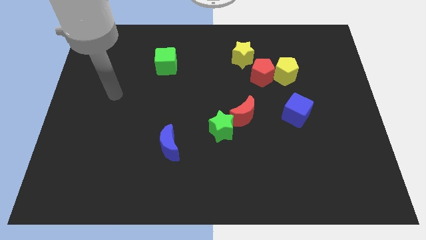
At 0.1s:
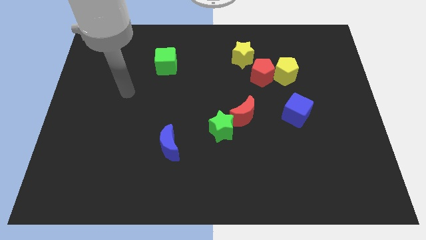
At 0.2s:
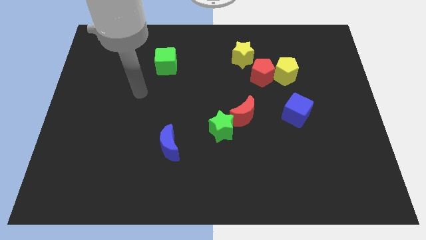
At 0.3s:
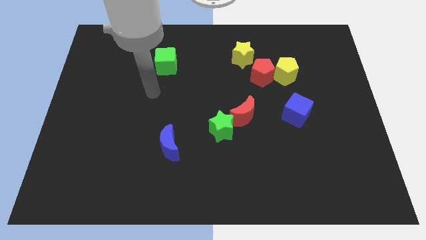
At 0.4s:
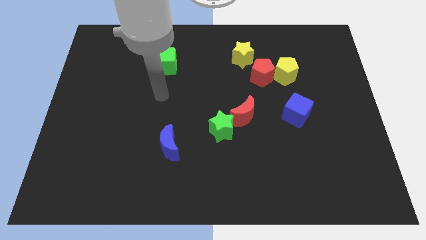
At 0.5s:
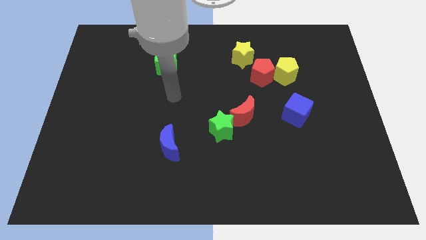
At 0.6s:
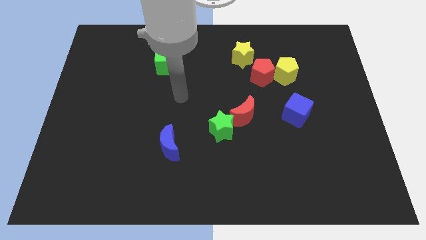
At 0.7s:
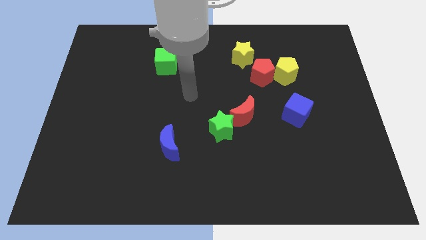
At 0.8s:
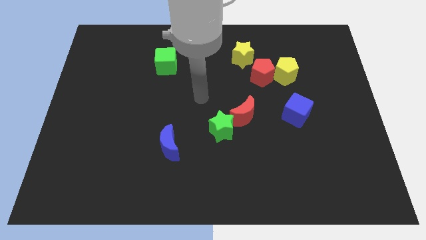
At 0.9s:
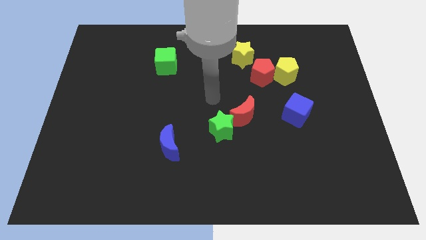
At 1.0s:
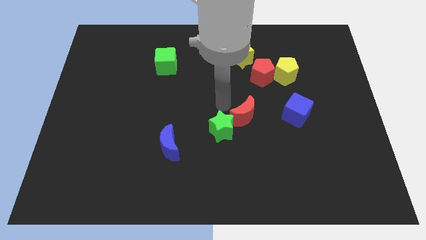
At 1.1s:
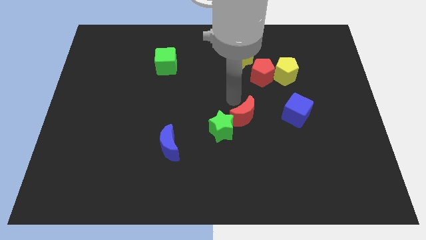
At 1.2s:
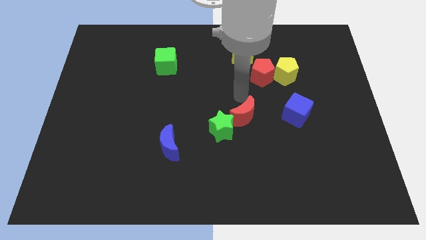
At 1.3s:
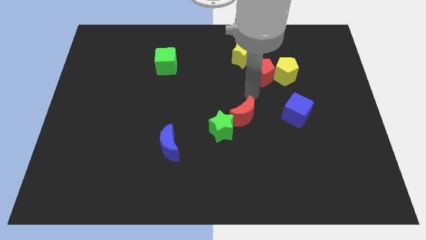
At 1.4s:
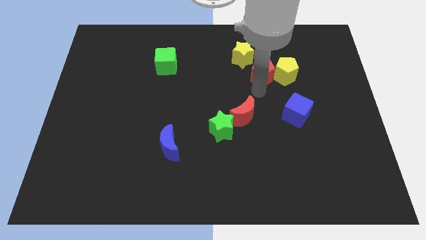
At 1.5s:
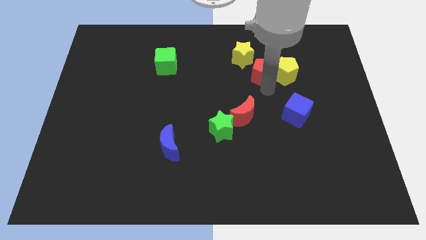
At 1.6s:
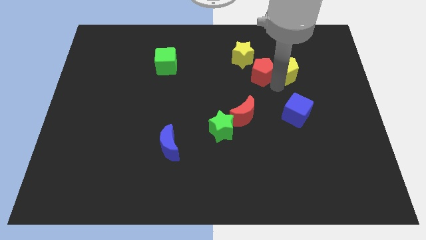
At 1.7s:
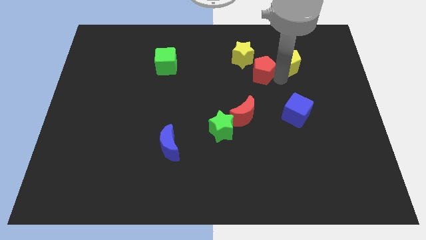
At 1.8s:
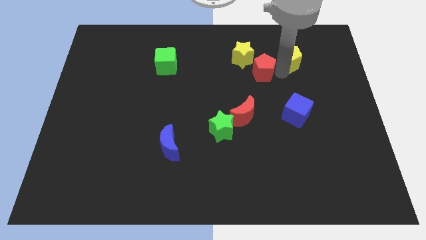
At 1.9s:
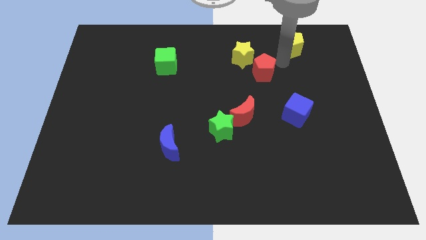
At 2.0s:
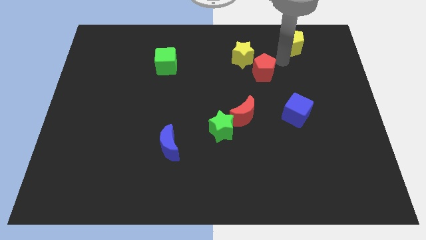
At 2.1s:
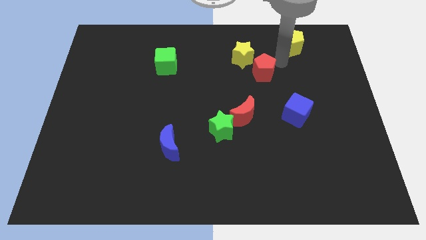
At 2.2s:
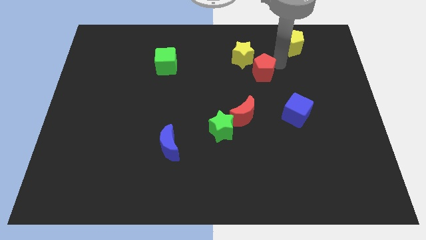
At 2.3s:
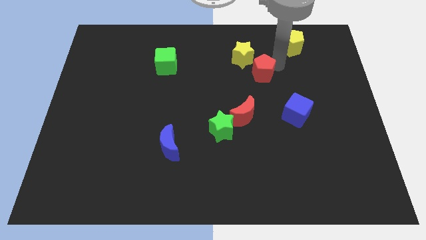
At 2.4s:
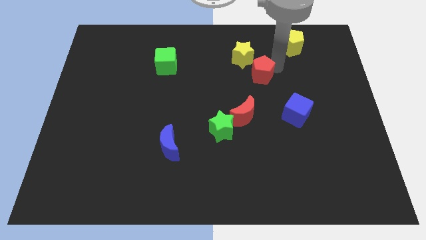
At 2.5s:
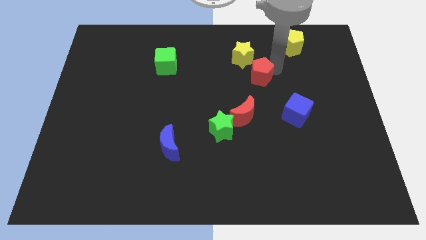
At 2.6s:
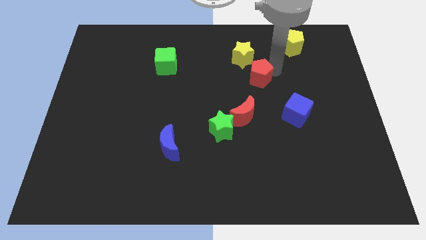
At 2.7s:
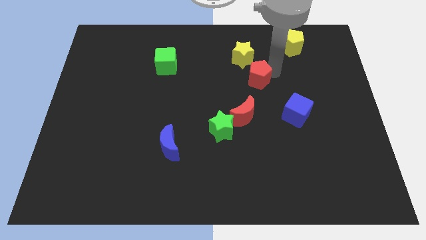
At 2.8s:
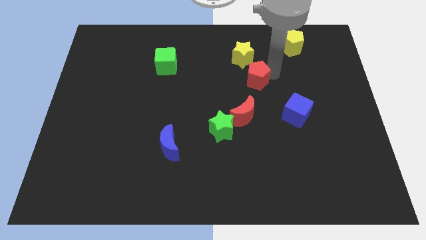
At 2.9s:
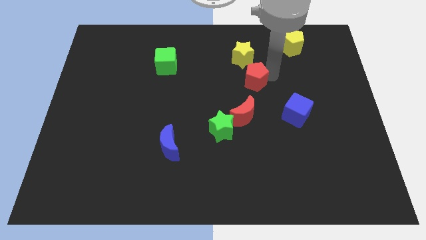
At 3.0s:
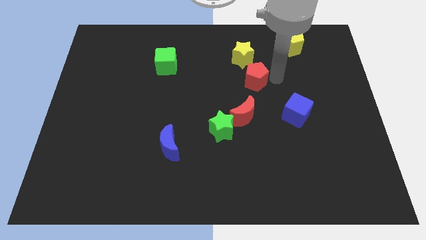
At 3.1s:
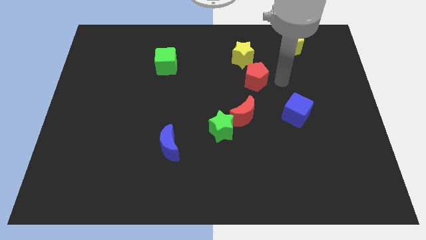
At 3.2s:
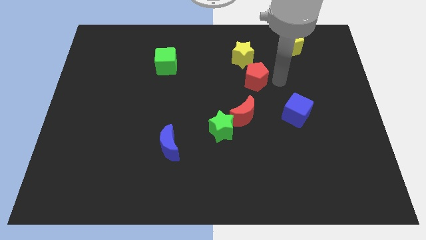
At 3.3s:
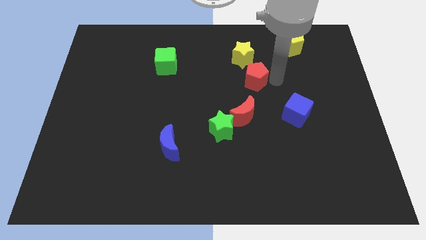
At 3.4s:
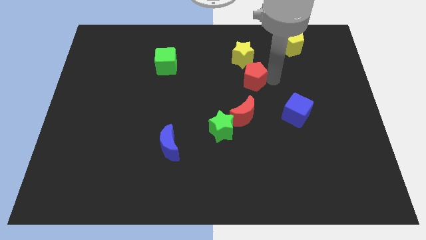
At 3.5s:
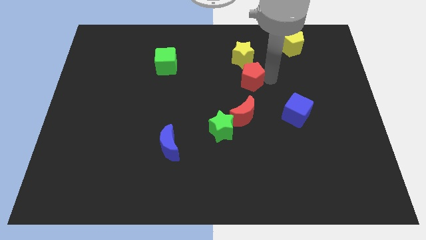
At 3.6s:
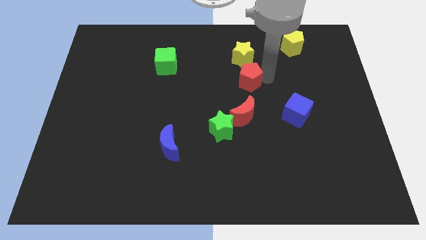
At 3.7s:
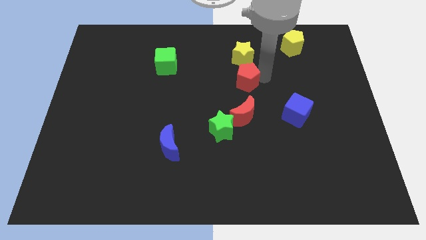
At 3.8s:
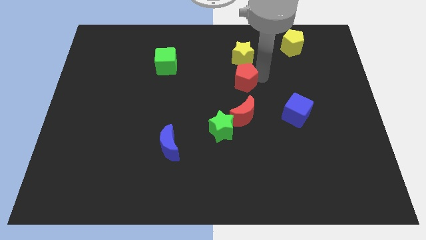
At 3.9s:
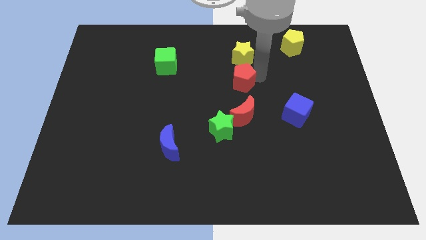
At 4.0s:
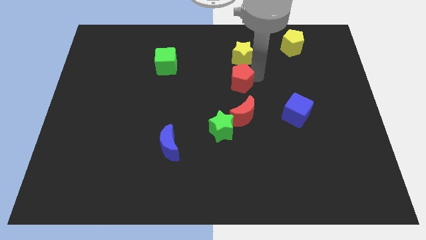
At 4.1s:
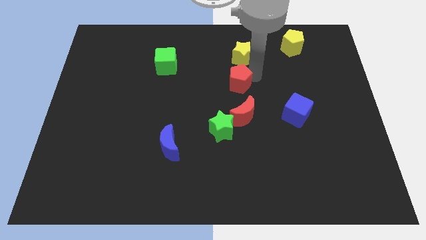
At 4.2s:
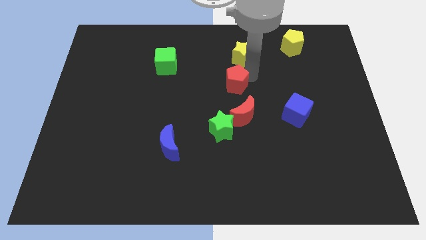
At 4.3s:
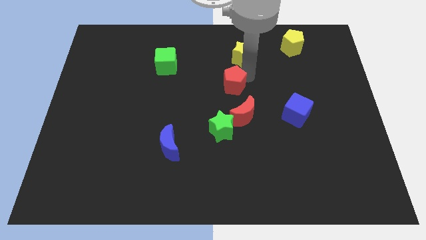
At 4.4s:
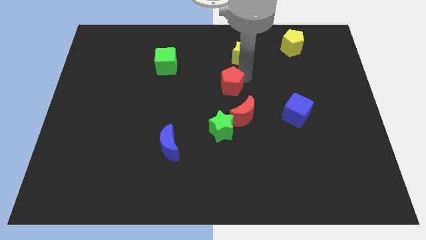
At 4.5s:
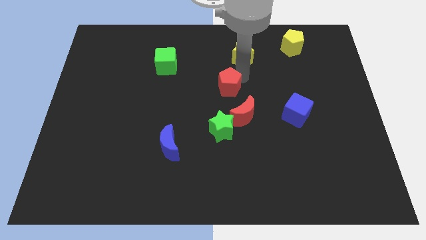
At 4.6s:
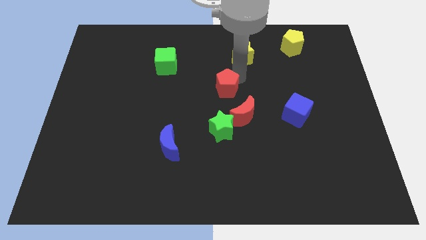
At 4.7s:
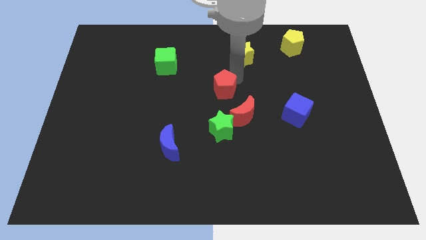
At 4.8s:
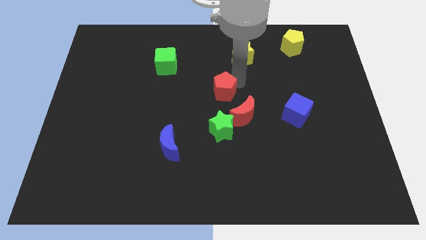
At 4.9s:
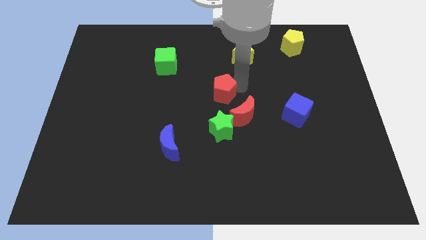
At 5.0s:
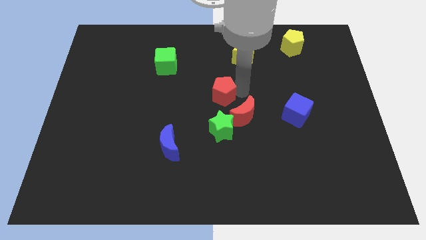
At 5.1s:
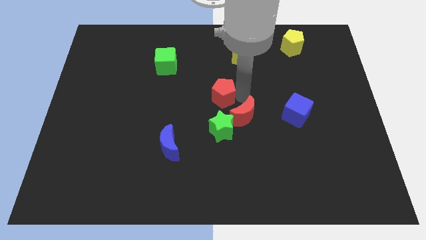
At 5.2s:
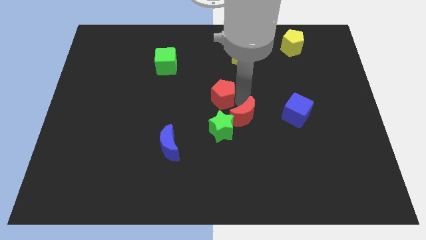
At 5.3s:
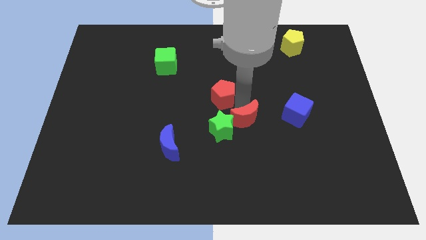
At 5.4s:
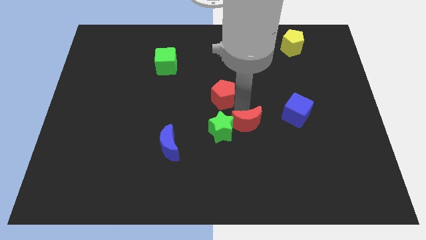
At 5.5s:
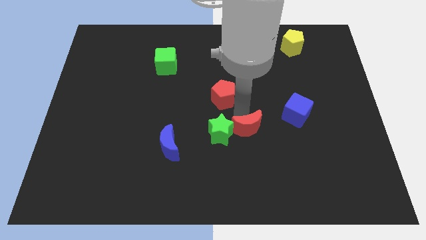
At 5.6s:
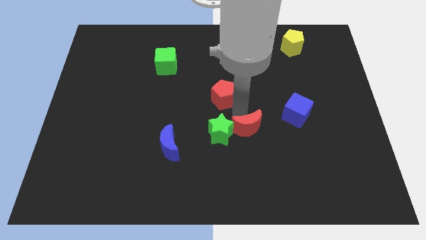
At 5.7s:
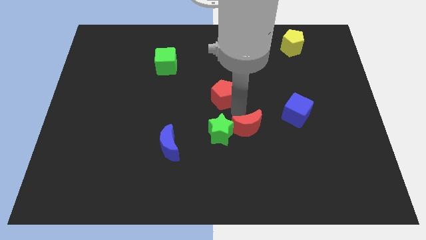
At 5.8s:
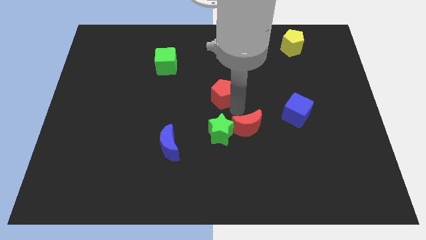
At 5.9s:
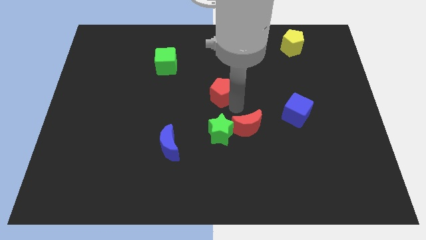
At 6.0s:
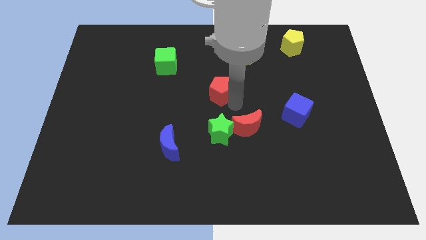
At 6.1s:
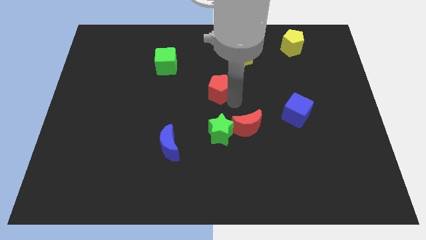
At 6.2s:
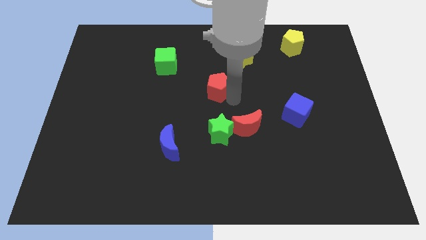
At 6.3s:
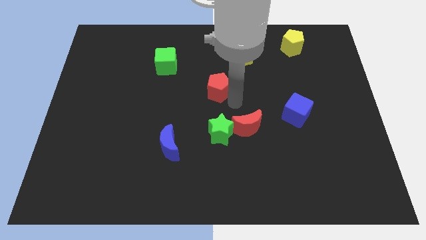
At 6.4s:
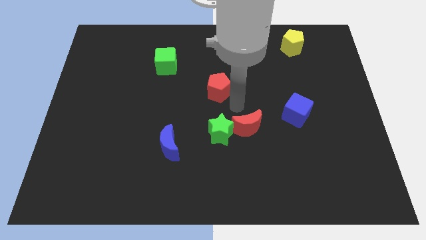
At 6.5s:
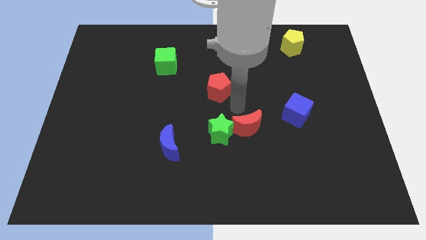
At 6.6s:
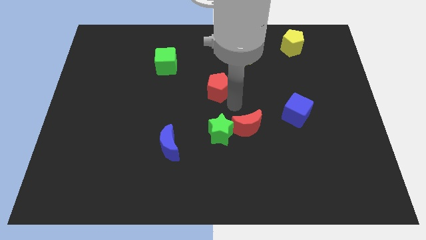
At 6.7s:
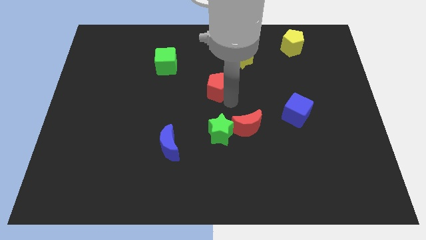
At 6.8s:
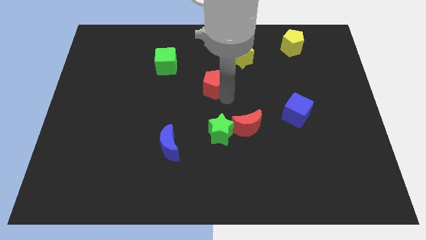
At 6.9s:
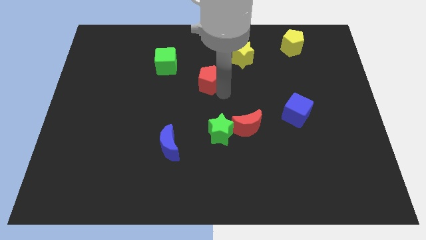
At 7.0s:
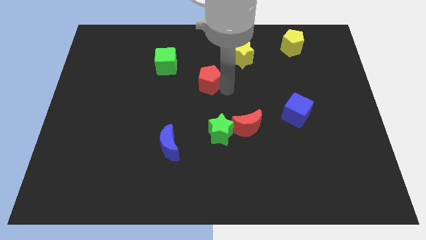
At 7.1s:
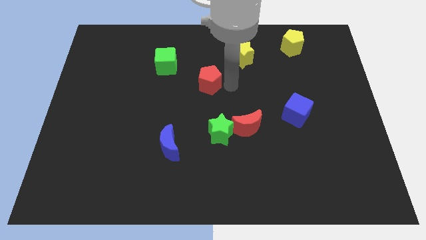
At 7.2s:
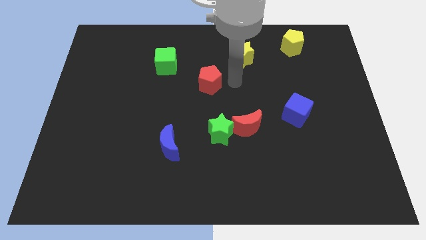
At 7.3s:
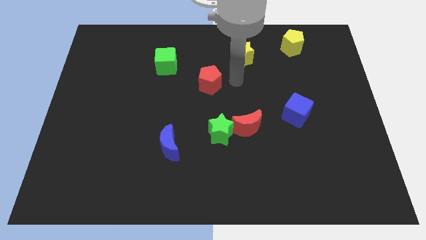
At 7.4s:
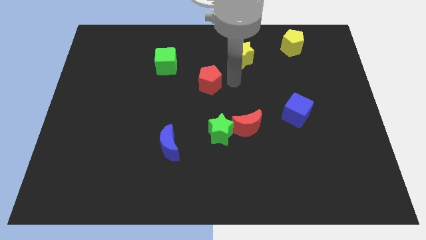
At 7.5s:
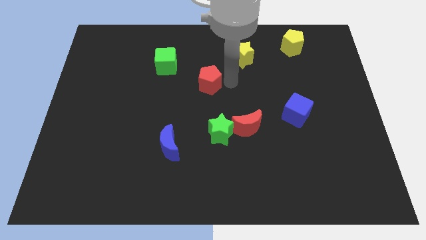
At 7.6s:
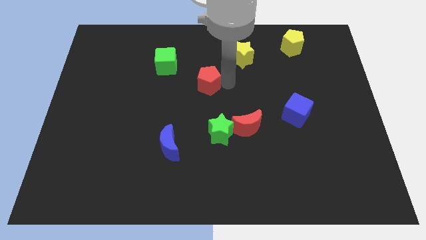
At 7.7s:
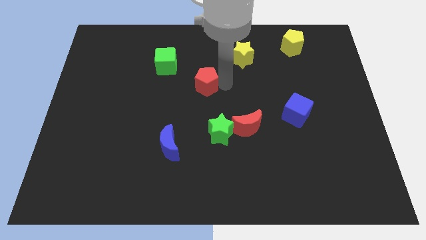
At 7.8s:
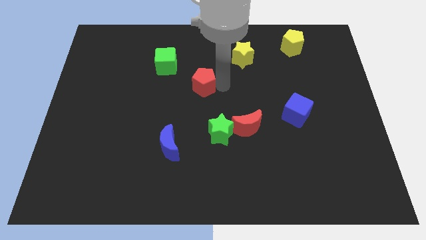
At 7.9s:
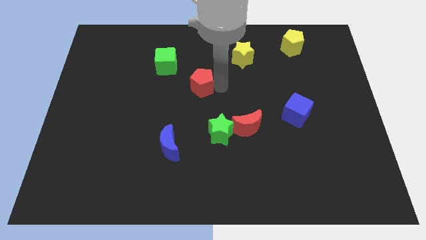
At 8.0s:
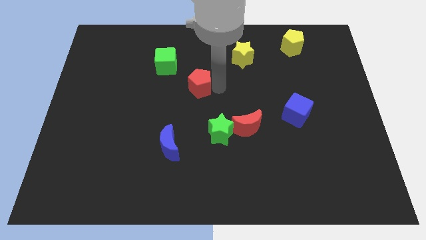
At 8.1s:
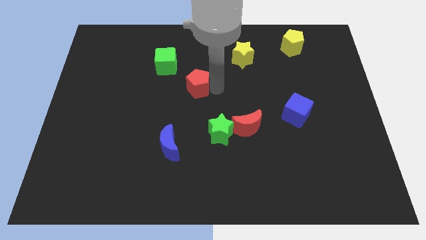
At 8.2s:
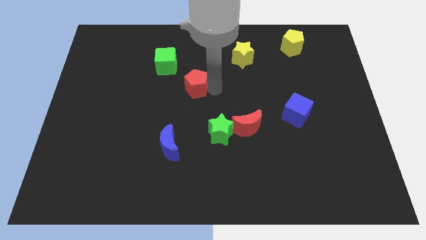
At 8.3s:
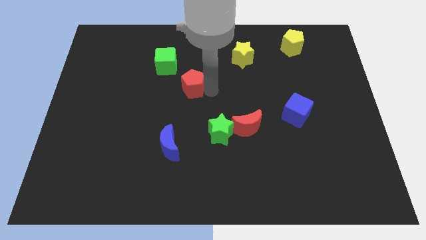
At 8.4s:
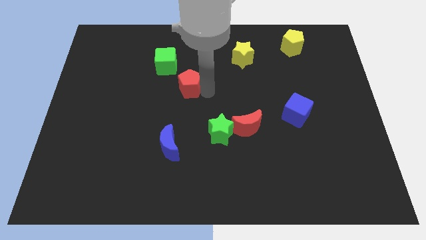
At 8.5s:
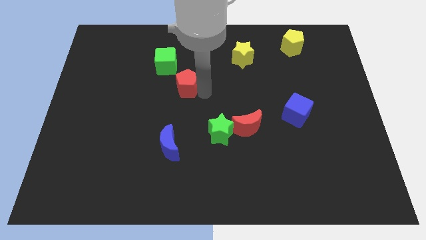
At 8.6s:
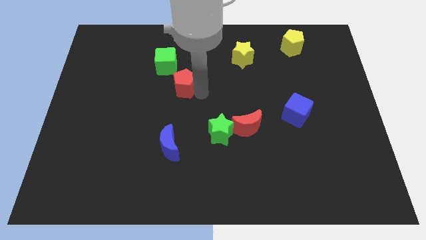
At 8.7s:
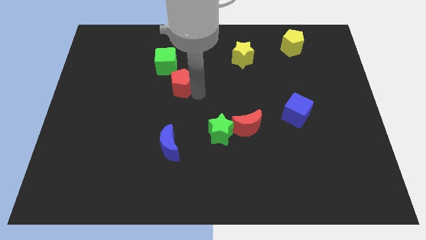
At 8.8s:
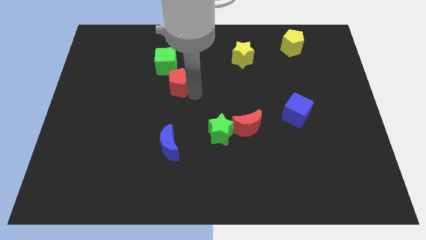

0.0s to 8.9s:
slide the red pentagon left
